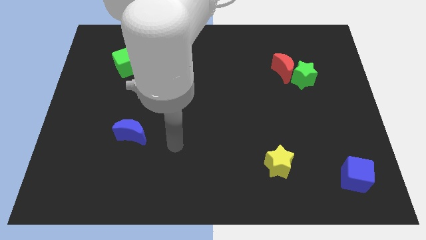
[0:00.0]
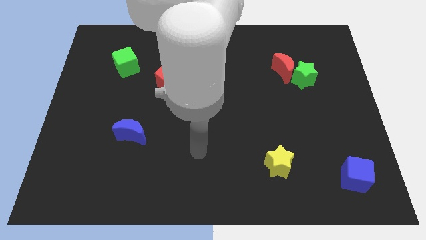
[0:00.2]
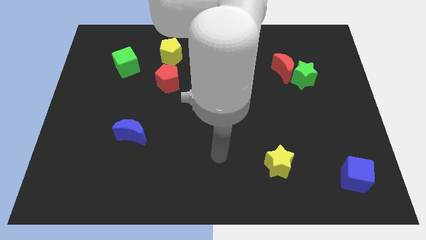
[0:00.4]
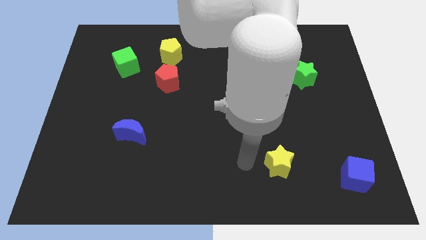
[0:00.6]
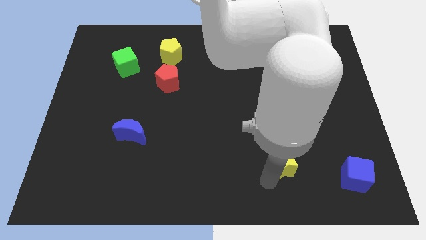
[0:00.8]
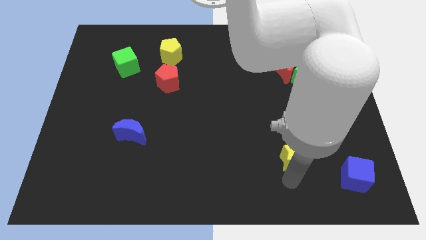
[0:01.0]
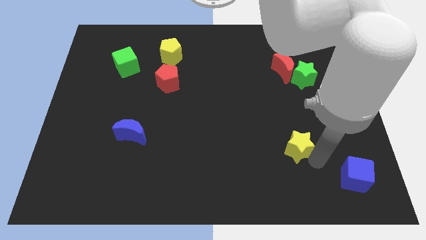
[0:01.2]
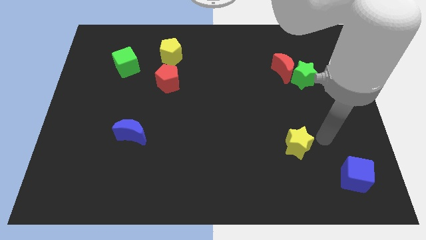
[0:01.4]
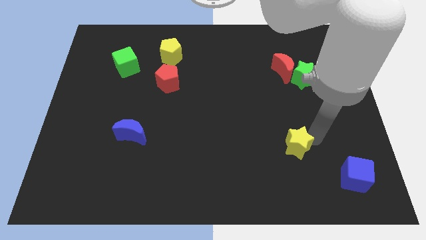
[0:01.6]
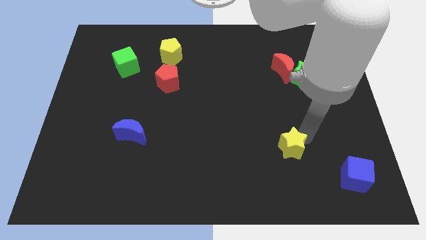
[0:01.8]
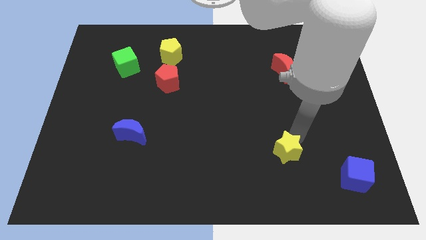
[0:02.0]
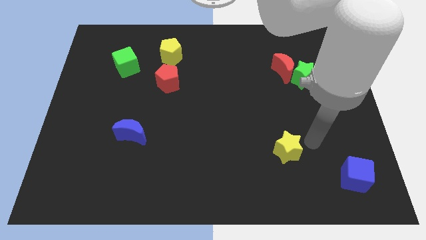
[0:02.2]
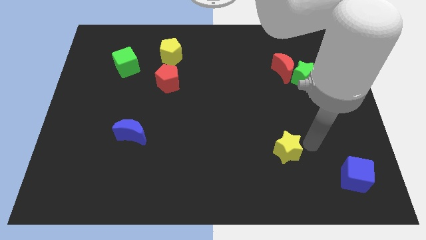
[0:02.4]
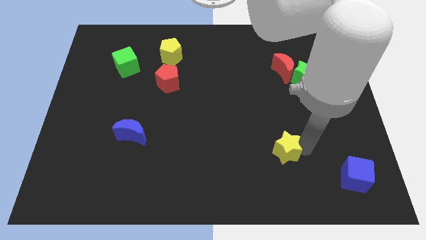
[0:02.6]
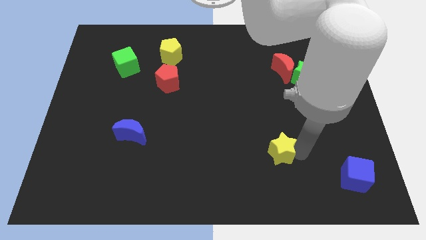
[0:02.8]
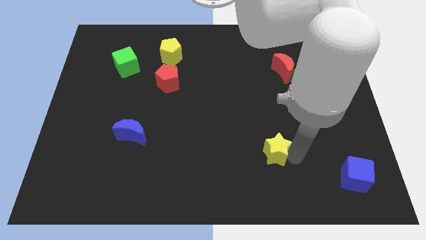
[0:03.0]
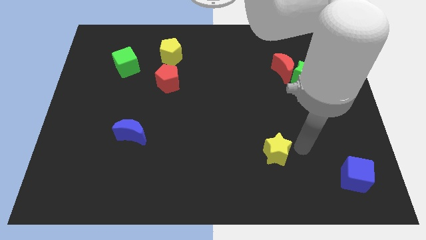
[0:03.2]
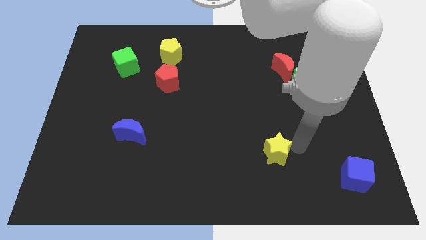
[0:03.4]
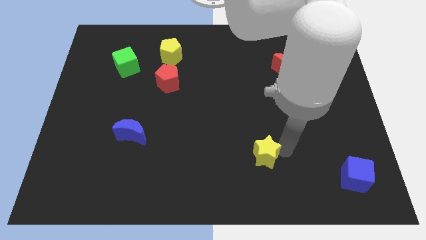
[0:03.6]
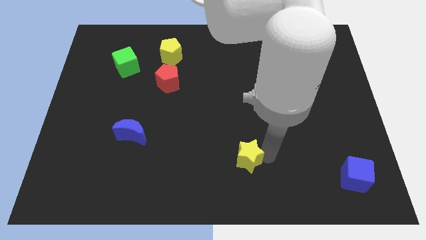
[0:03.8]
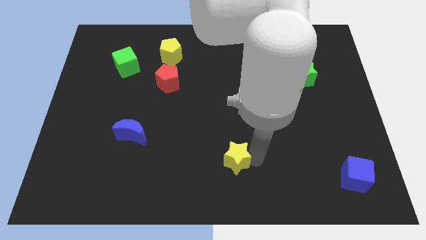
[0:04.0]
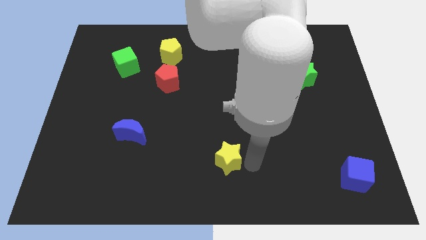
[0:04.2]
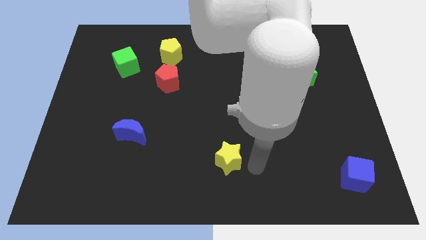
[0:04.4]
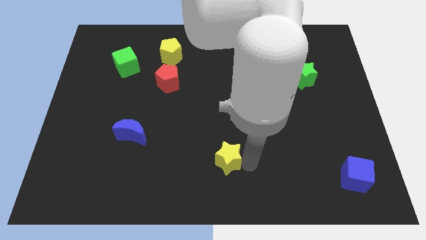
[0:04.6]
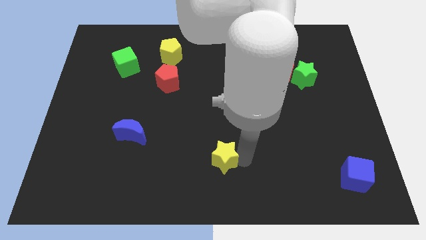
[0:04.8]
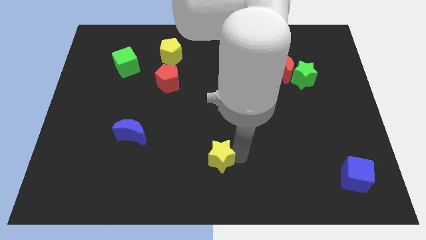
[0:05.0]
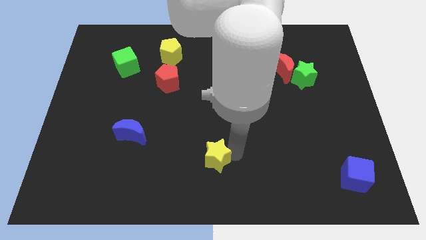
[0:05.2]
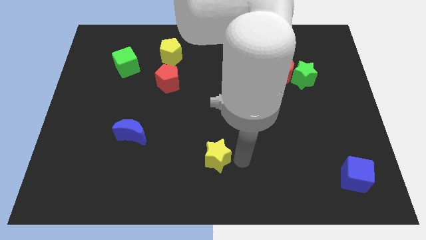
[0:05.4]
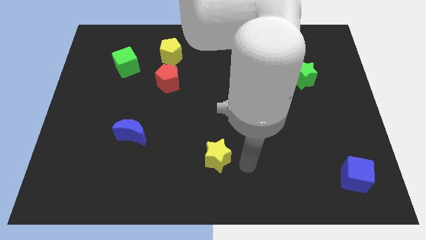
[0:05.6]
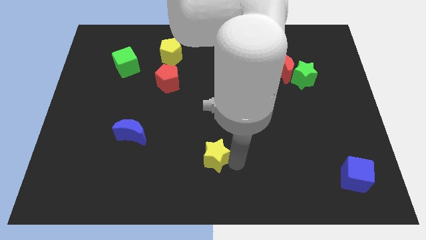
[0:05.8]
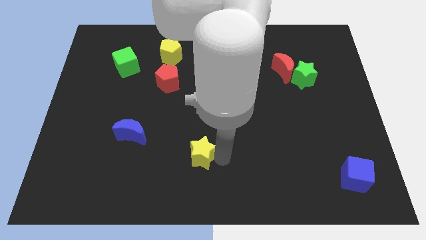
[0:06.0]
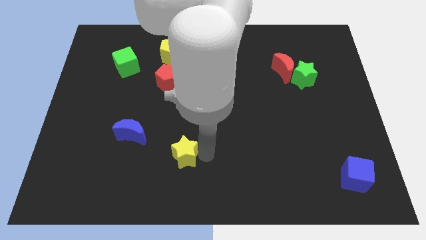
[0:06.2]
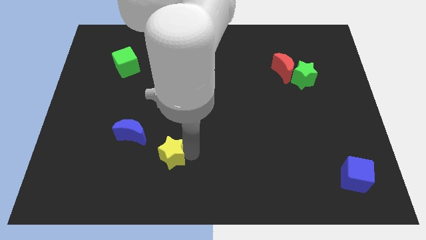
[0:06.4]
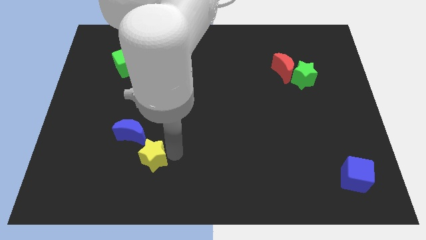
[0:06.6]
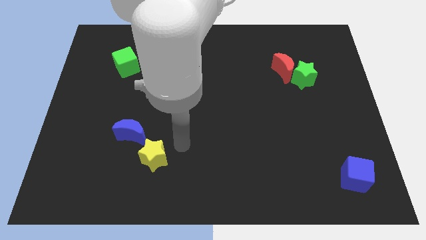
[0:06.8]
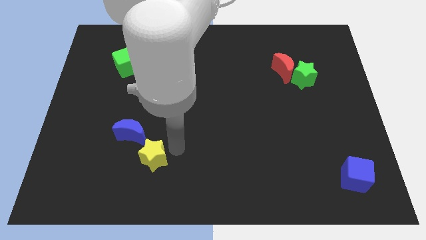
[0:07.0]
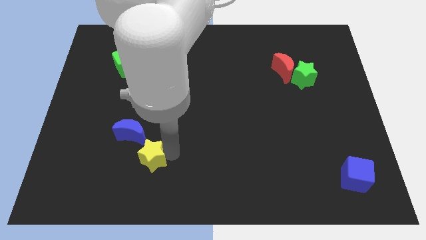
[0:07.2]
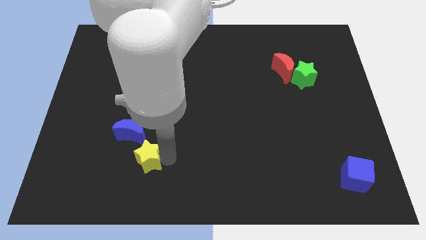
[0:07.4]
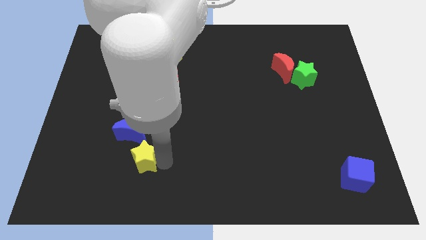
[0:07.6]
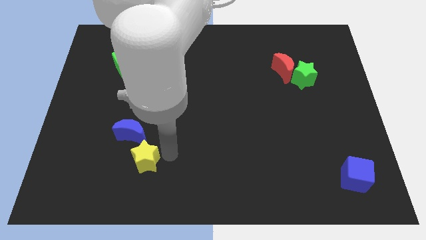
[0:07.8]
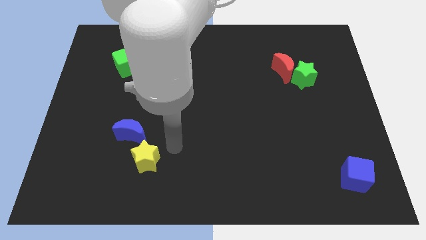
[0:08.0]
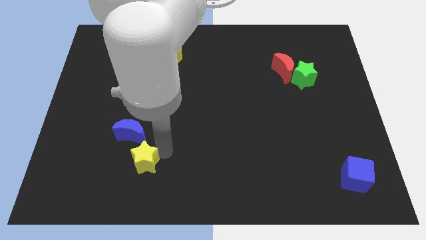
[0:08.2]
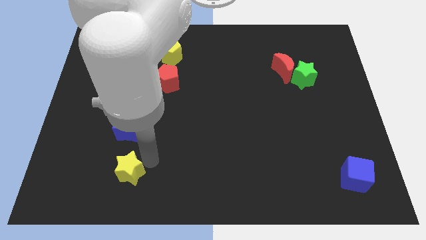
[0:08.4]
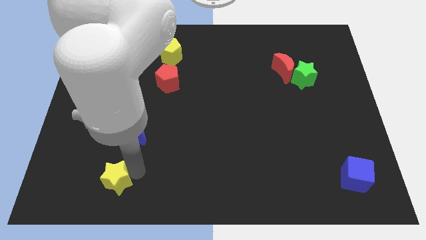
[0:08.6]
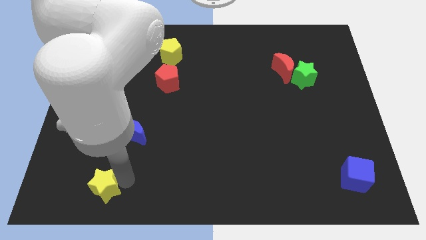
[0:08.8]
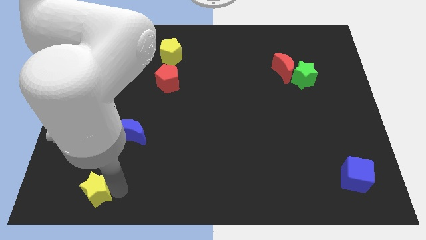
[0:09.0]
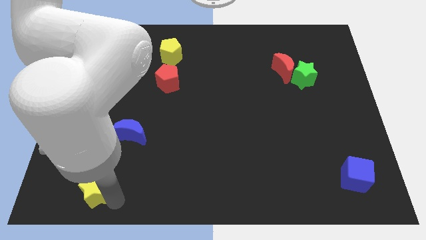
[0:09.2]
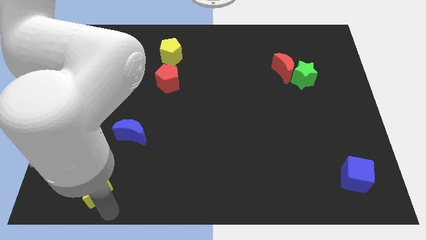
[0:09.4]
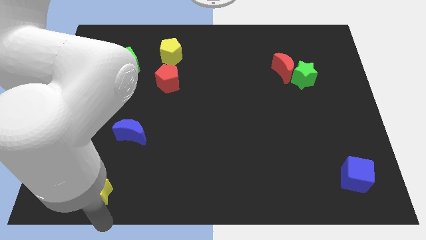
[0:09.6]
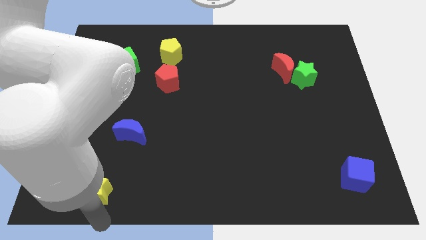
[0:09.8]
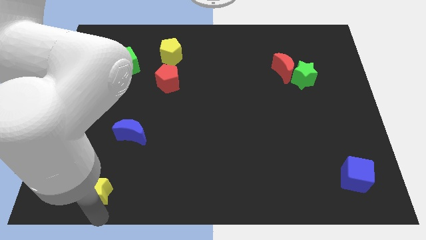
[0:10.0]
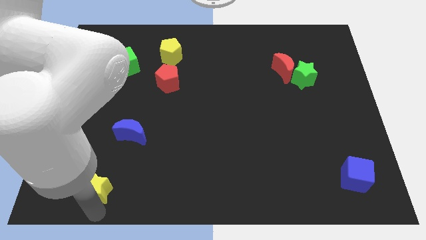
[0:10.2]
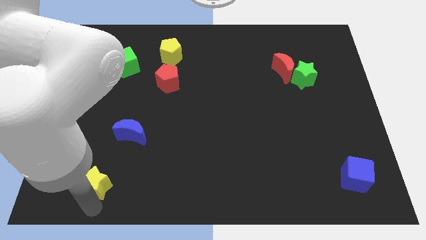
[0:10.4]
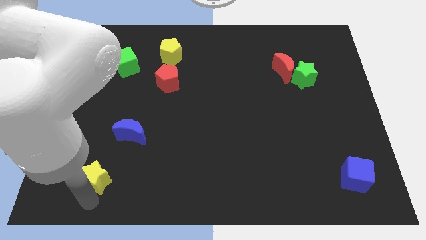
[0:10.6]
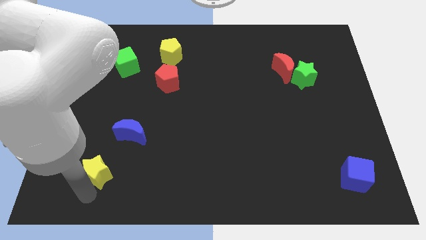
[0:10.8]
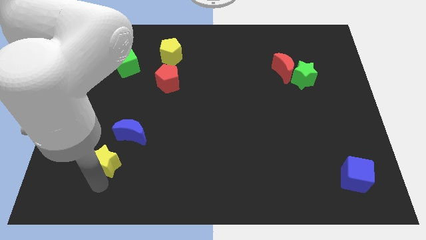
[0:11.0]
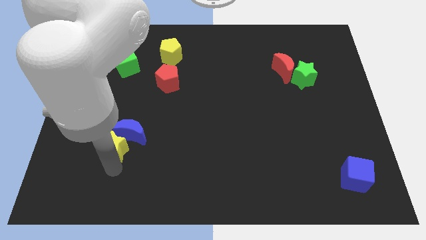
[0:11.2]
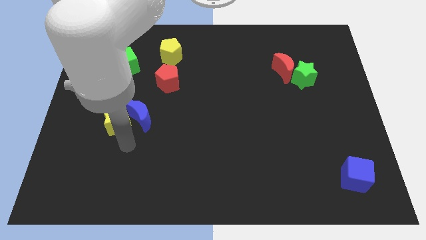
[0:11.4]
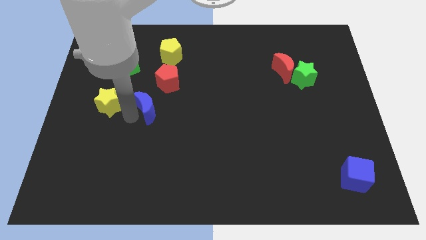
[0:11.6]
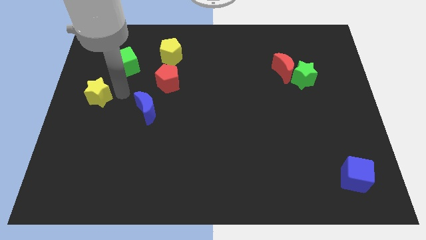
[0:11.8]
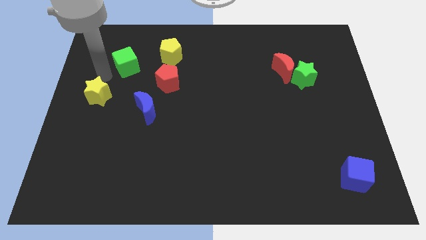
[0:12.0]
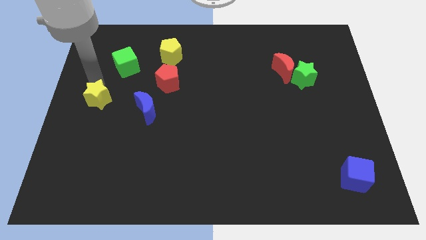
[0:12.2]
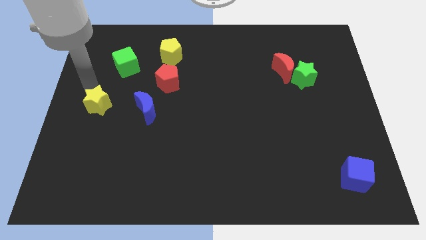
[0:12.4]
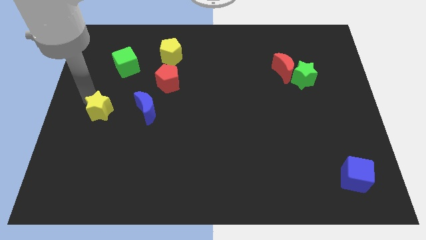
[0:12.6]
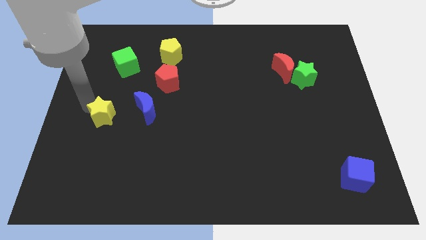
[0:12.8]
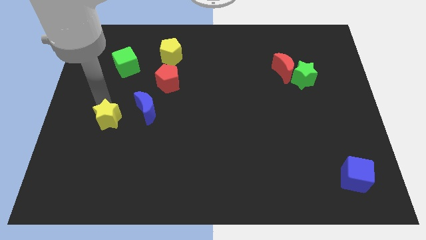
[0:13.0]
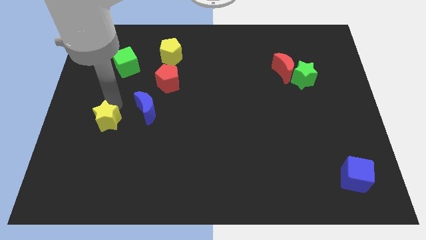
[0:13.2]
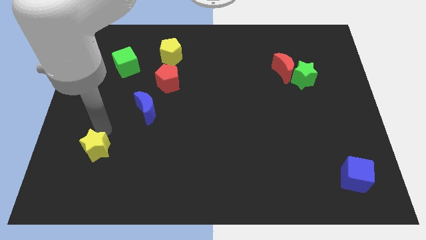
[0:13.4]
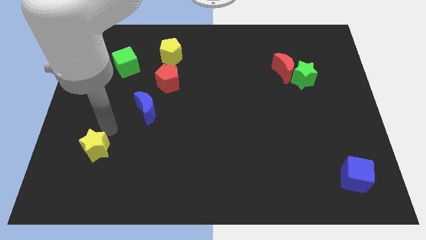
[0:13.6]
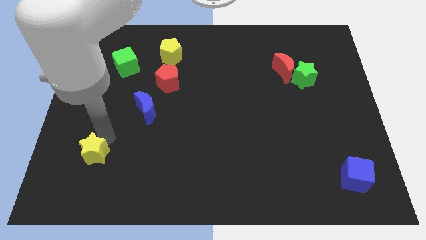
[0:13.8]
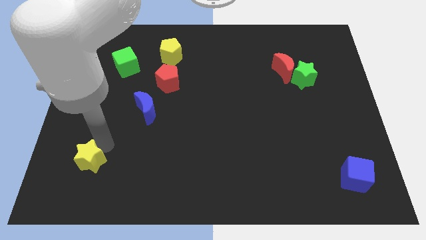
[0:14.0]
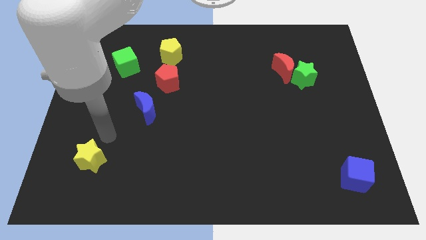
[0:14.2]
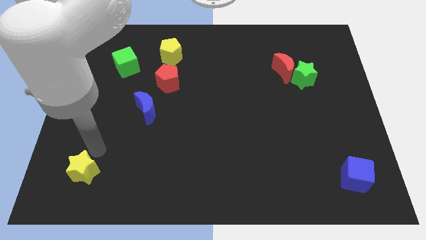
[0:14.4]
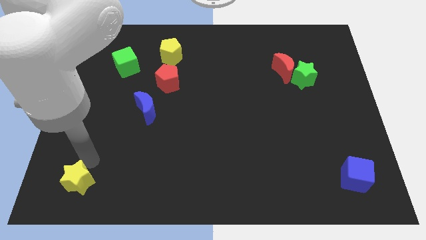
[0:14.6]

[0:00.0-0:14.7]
move the yellow star to the bottom left of the board

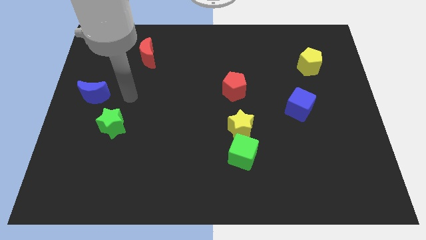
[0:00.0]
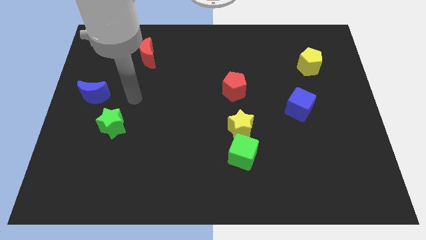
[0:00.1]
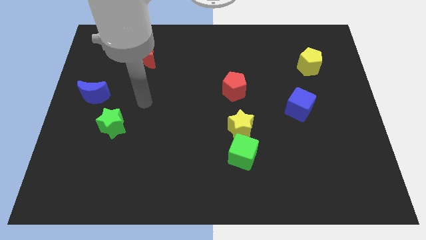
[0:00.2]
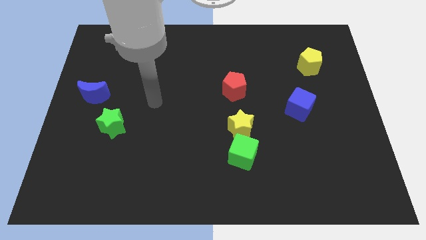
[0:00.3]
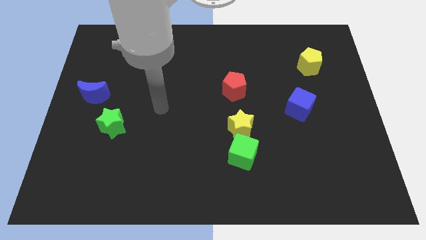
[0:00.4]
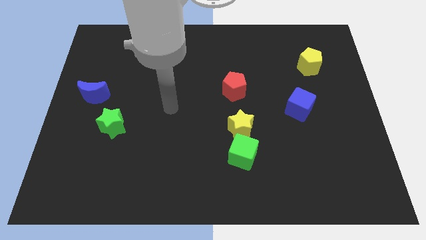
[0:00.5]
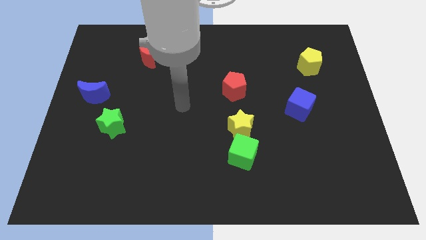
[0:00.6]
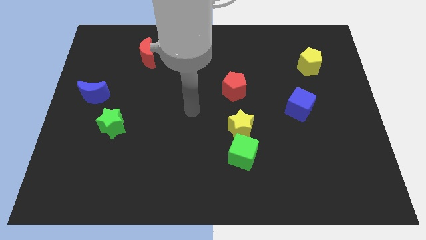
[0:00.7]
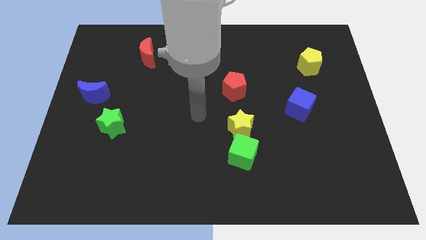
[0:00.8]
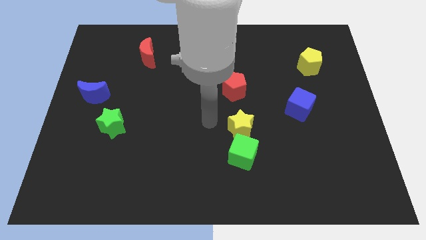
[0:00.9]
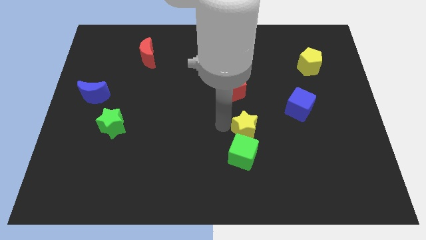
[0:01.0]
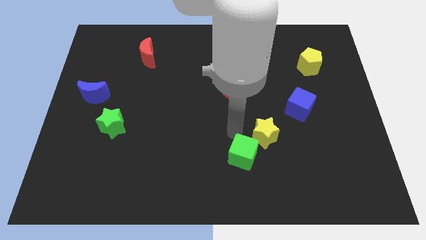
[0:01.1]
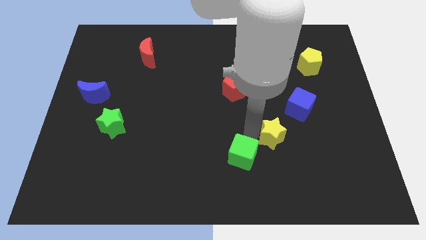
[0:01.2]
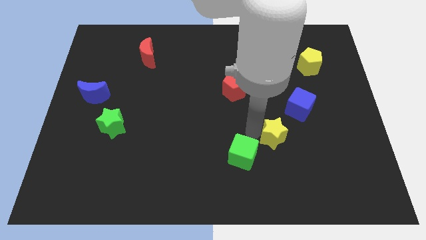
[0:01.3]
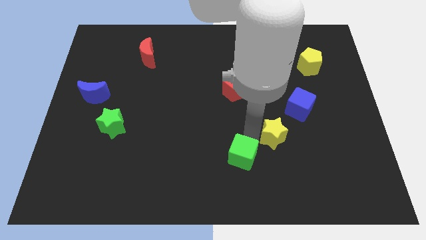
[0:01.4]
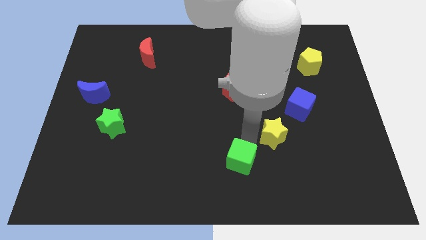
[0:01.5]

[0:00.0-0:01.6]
slide the green cube to the bottom
